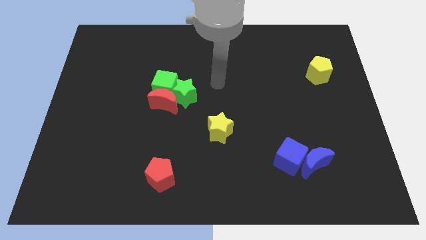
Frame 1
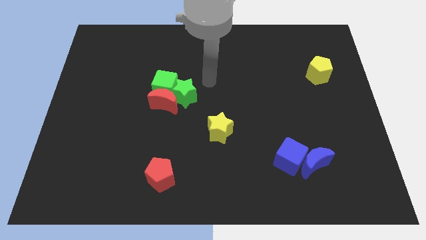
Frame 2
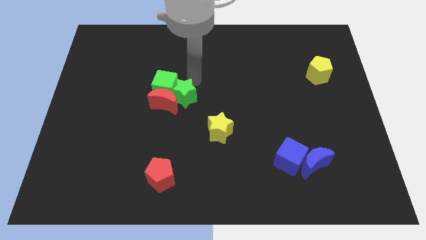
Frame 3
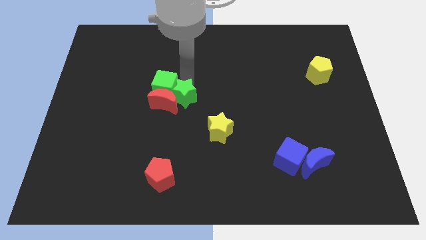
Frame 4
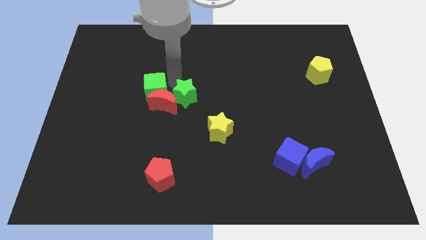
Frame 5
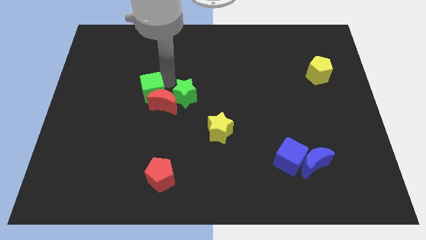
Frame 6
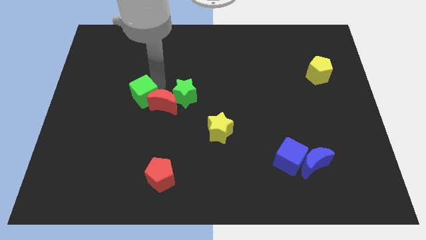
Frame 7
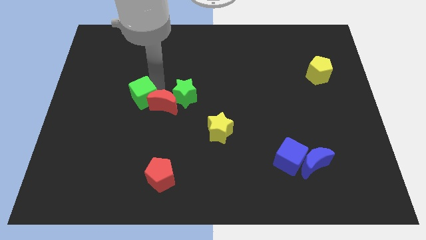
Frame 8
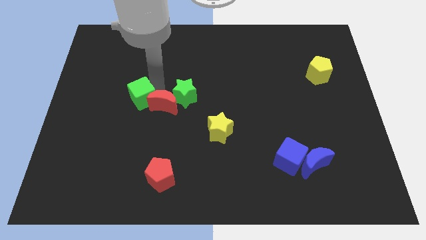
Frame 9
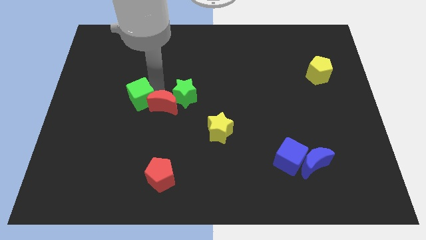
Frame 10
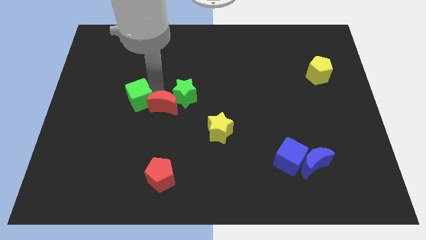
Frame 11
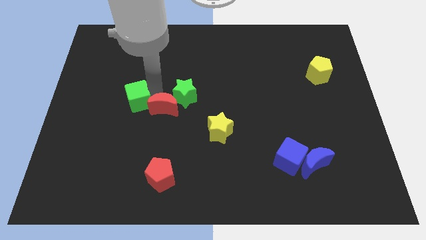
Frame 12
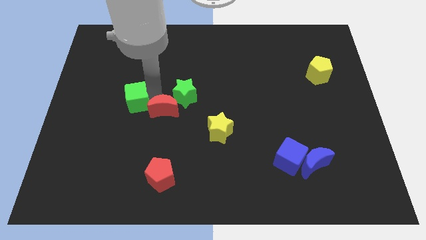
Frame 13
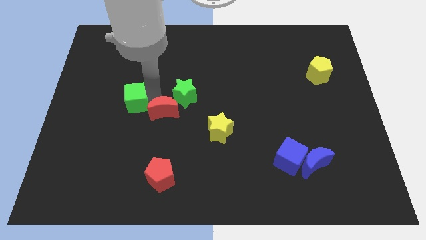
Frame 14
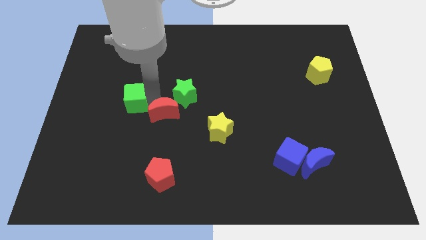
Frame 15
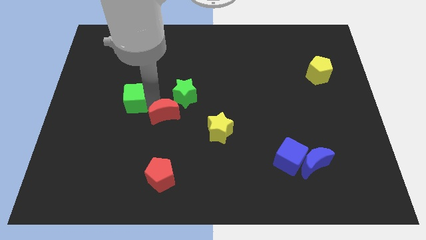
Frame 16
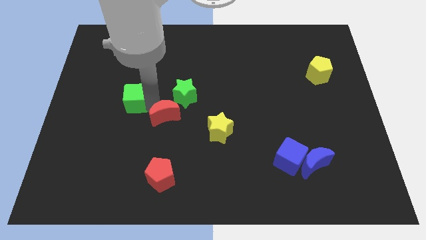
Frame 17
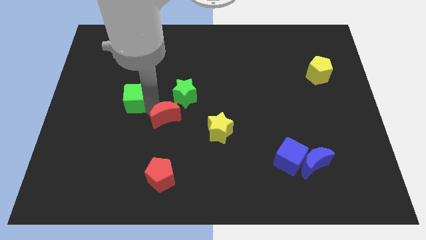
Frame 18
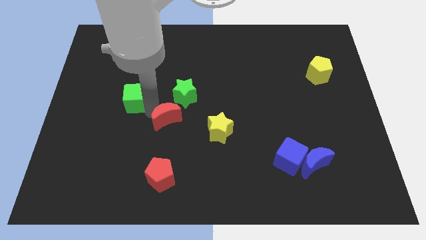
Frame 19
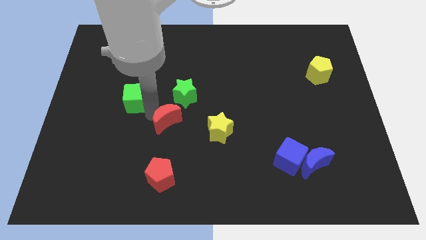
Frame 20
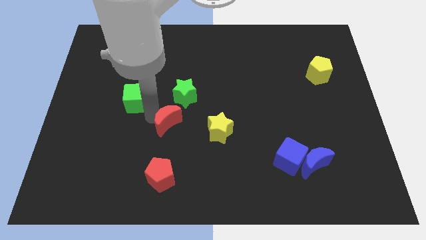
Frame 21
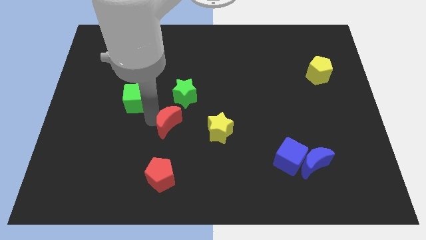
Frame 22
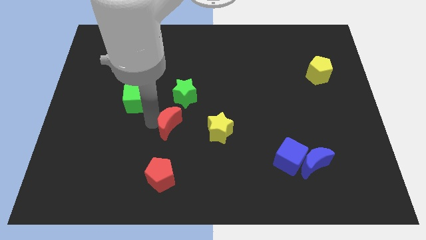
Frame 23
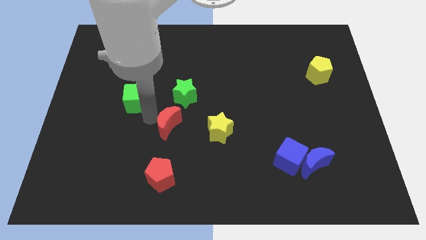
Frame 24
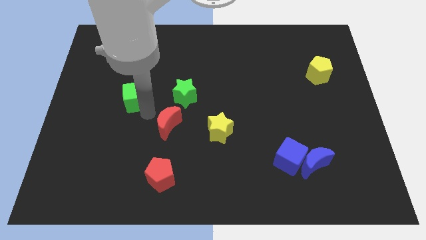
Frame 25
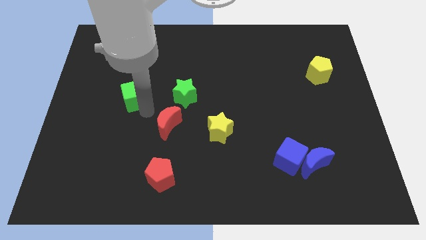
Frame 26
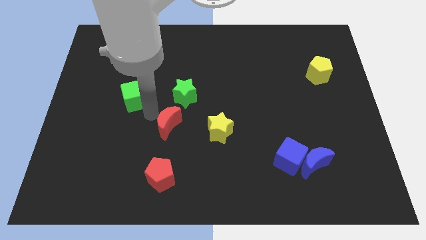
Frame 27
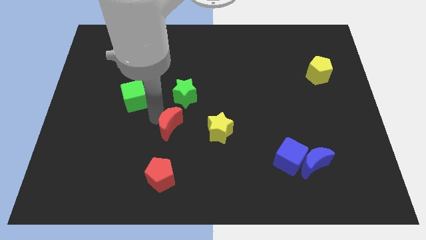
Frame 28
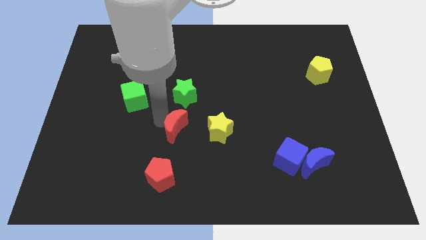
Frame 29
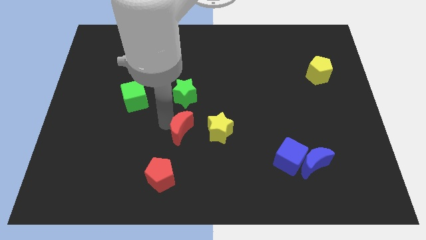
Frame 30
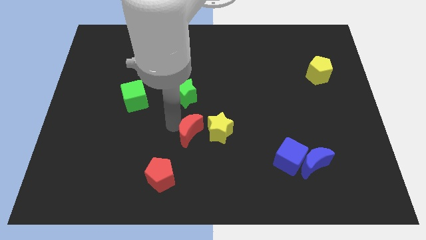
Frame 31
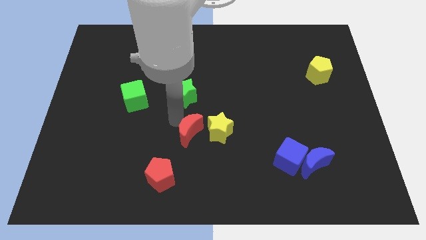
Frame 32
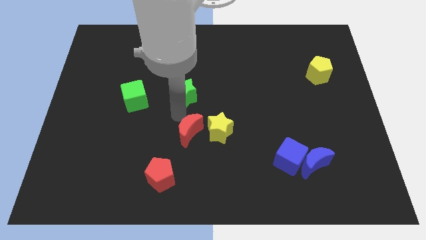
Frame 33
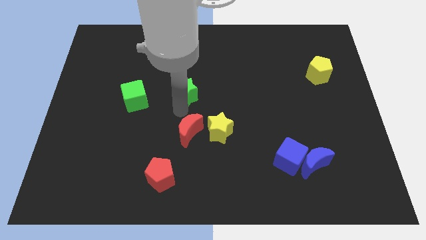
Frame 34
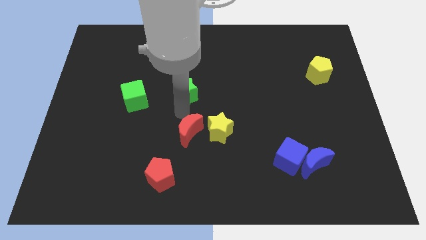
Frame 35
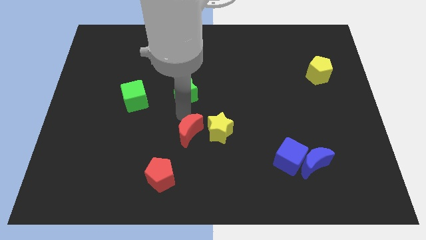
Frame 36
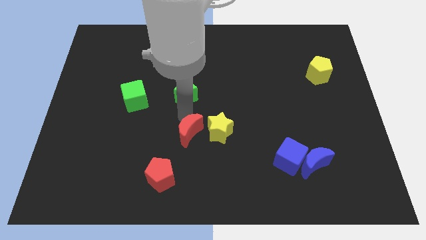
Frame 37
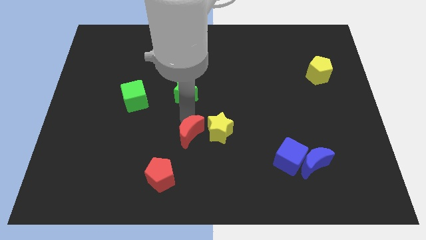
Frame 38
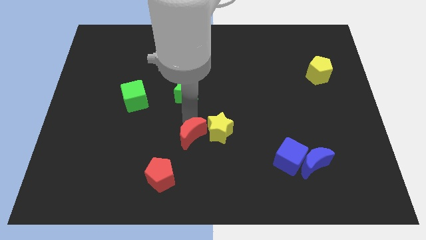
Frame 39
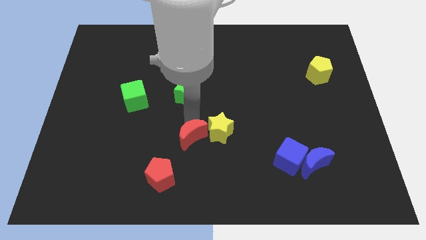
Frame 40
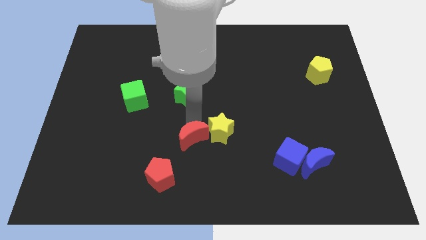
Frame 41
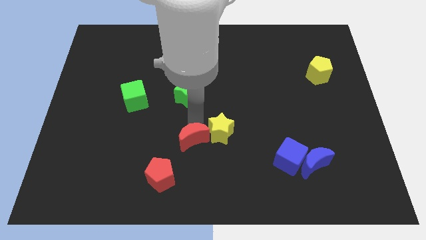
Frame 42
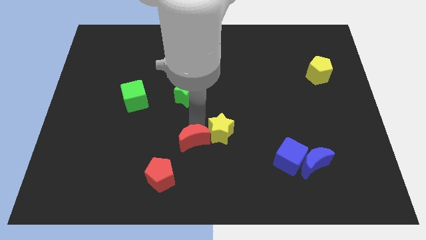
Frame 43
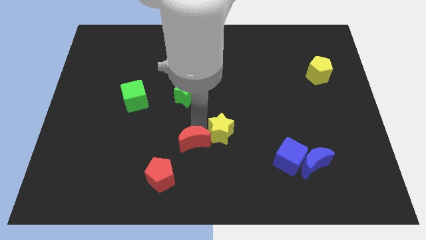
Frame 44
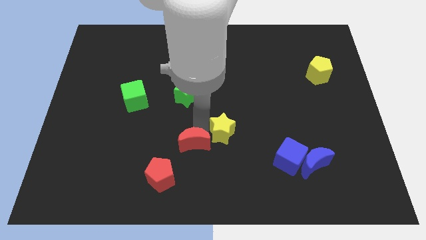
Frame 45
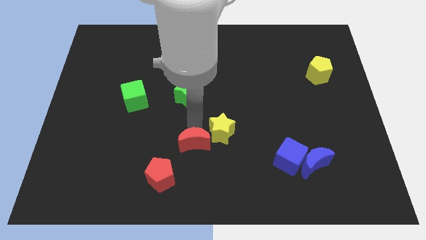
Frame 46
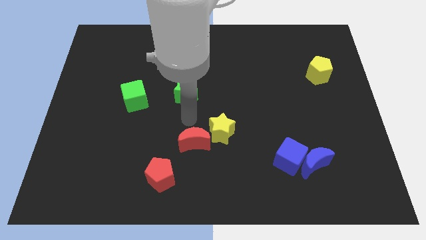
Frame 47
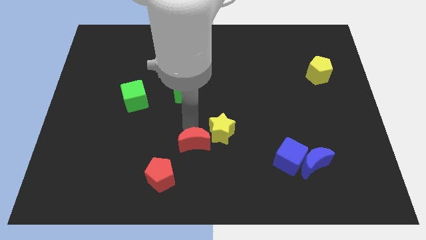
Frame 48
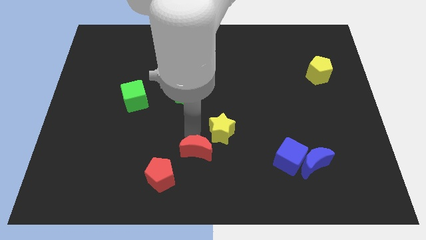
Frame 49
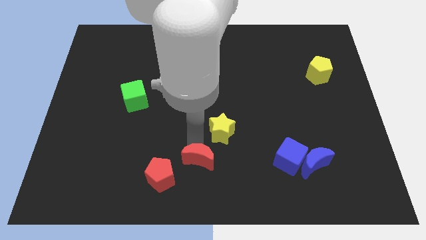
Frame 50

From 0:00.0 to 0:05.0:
put the red moon to the bottom side

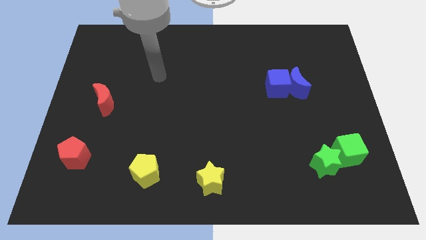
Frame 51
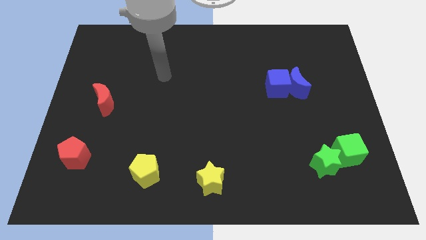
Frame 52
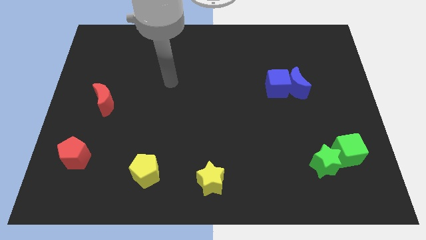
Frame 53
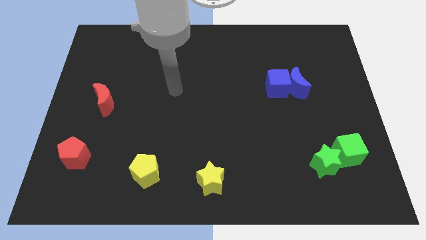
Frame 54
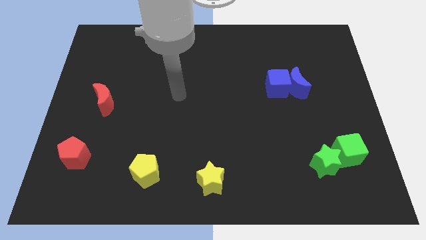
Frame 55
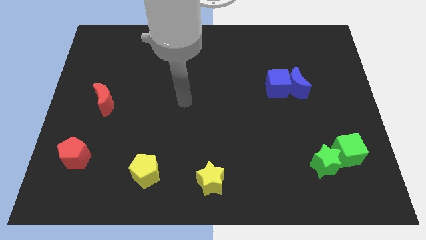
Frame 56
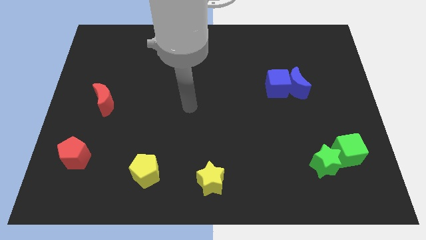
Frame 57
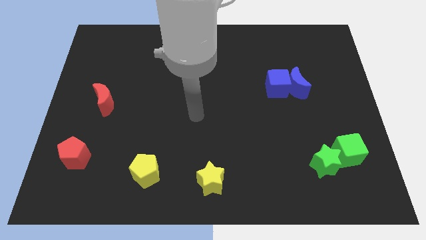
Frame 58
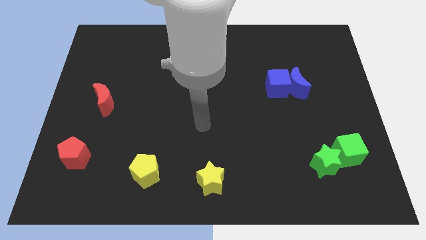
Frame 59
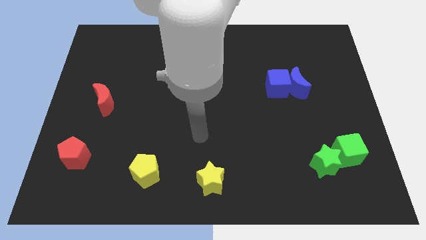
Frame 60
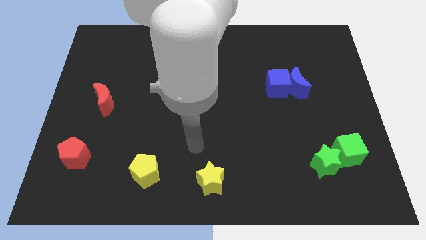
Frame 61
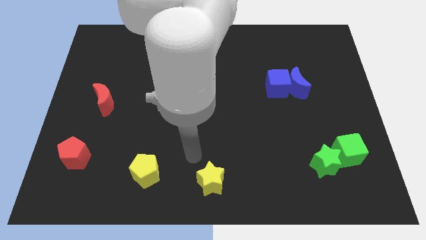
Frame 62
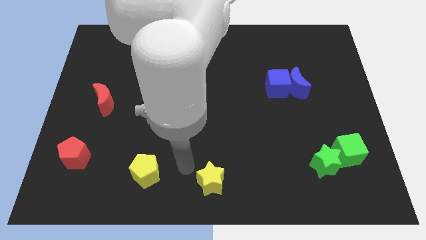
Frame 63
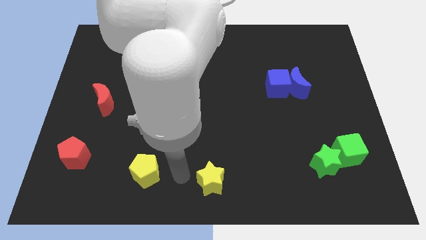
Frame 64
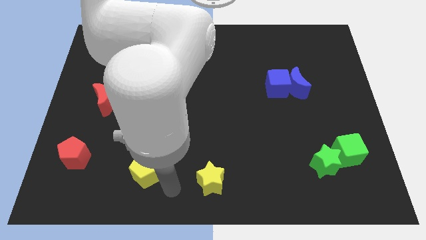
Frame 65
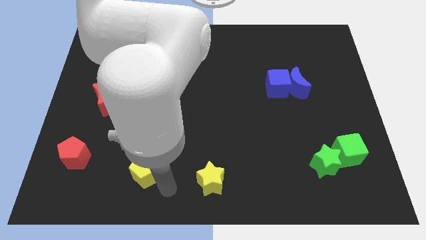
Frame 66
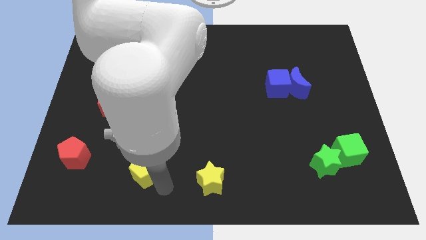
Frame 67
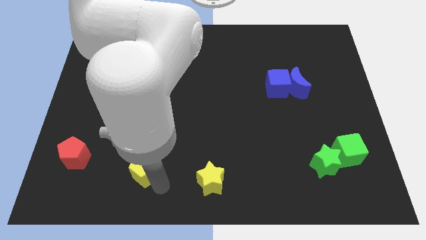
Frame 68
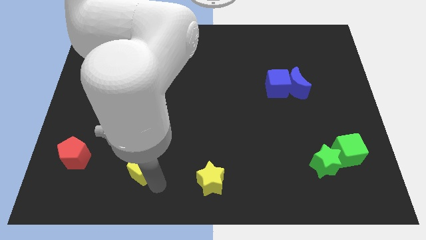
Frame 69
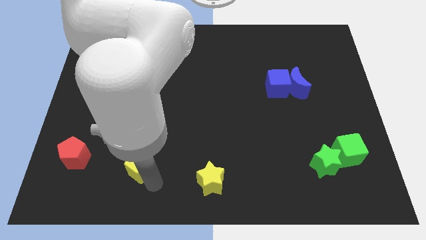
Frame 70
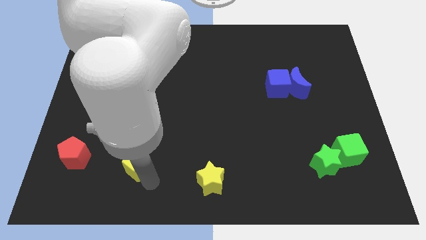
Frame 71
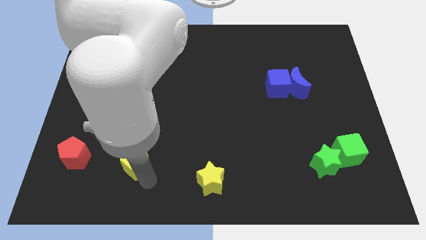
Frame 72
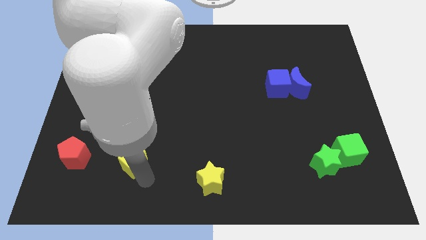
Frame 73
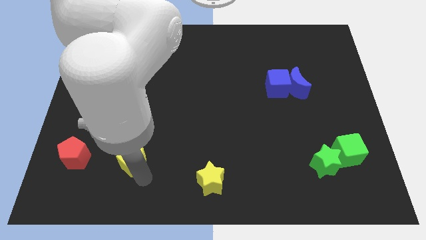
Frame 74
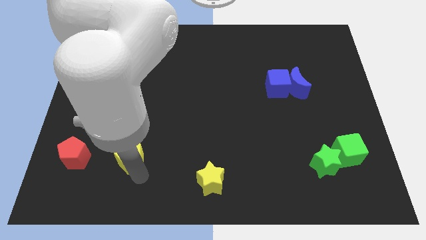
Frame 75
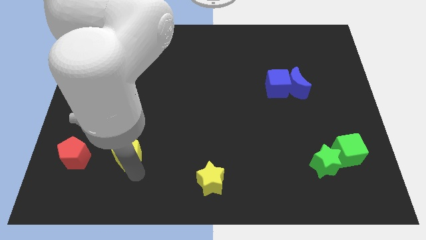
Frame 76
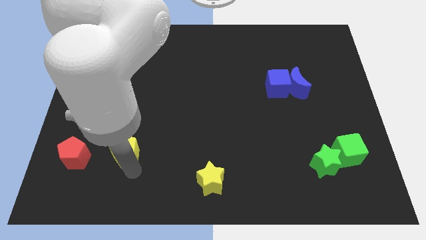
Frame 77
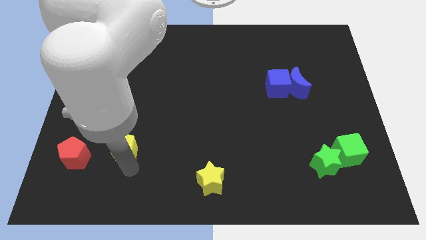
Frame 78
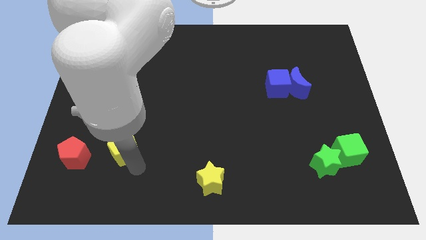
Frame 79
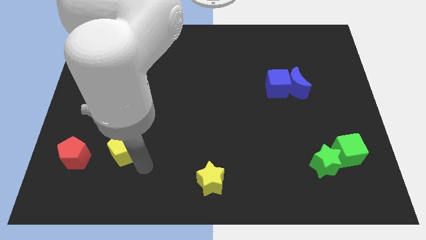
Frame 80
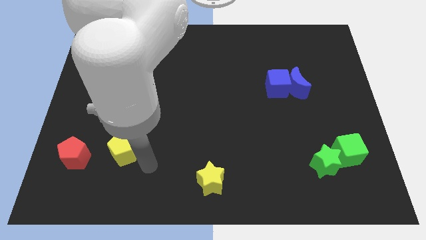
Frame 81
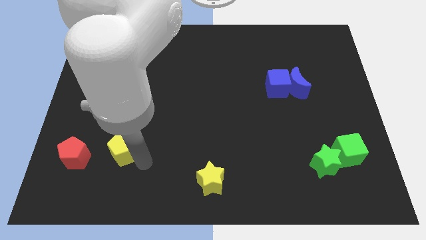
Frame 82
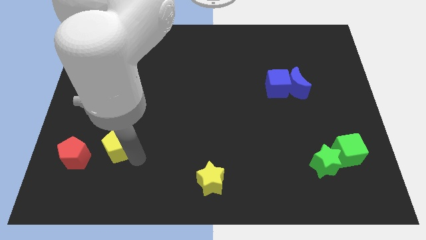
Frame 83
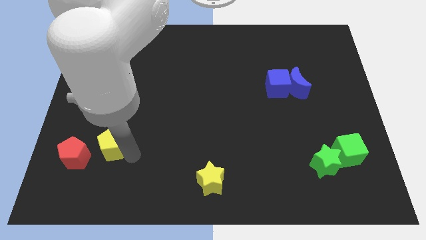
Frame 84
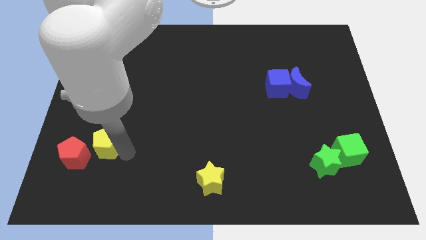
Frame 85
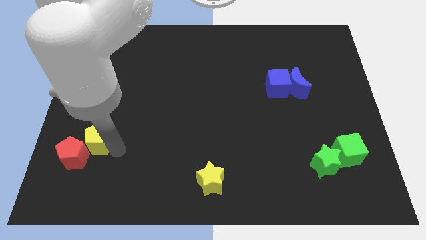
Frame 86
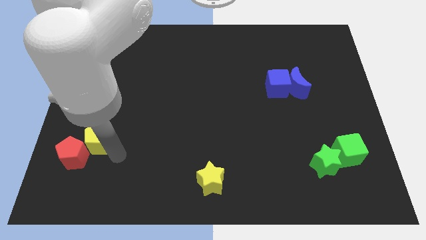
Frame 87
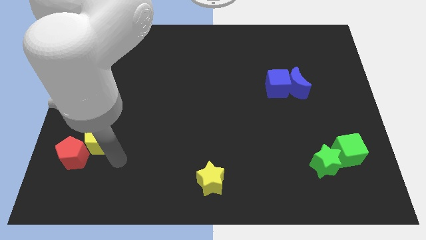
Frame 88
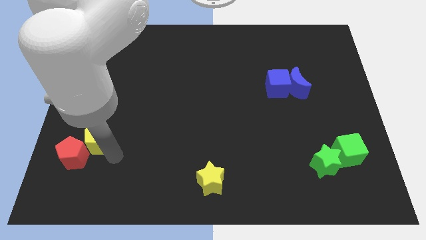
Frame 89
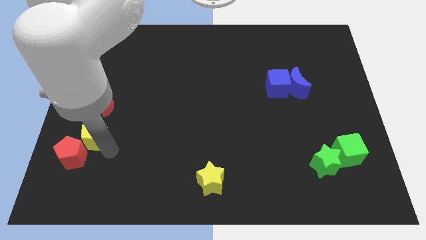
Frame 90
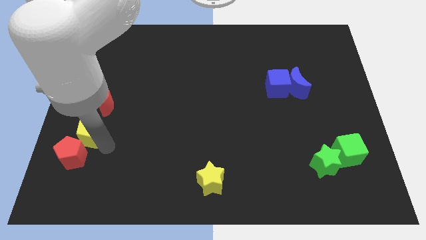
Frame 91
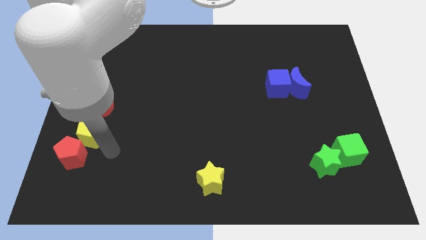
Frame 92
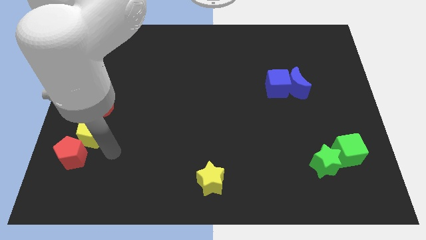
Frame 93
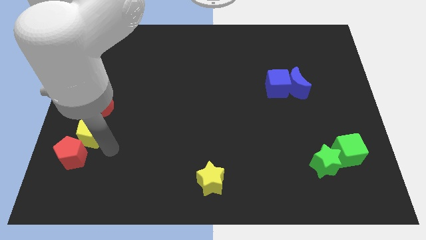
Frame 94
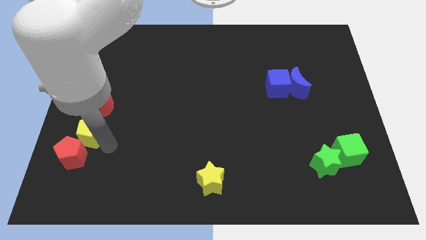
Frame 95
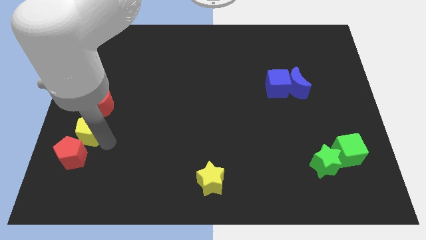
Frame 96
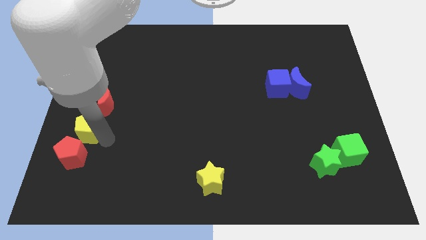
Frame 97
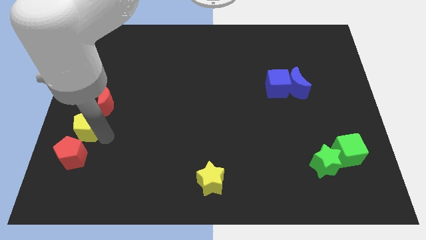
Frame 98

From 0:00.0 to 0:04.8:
put the yellow pentagon to the center left
